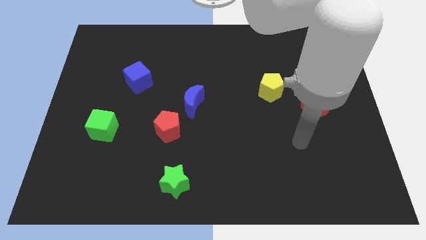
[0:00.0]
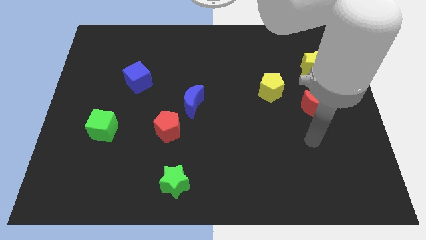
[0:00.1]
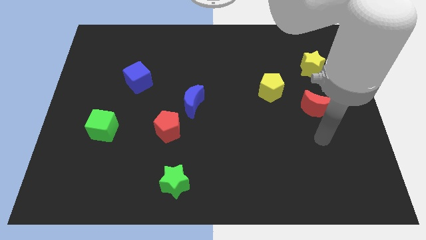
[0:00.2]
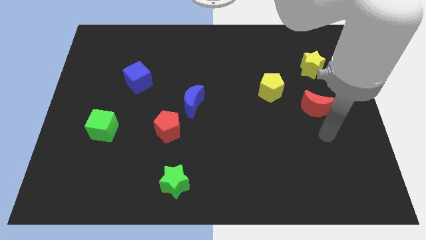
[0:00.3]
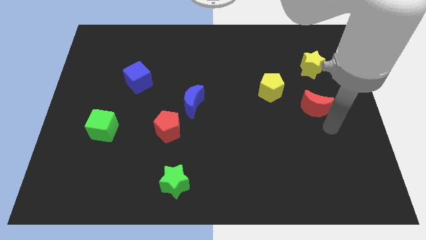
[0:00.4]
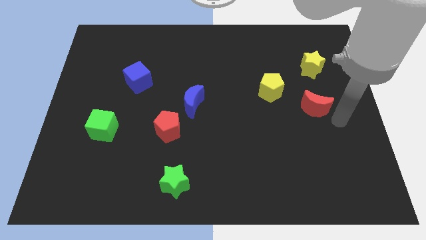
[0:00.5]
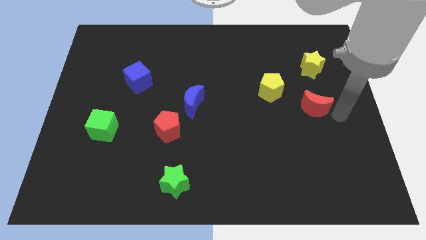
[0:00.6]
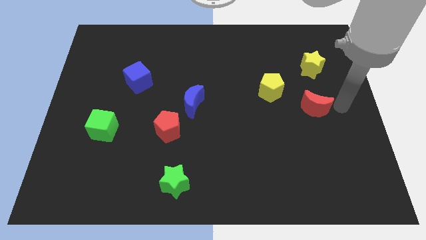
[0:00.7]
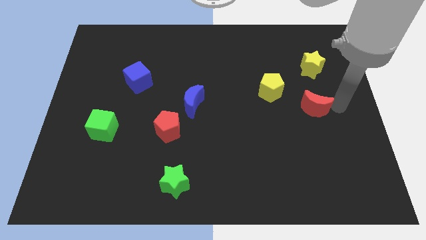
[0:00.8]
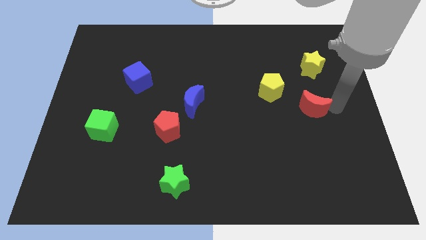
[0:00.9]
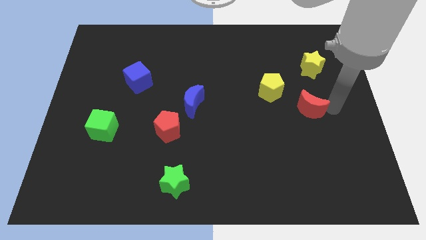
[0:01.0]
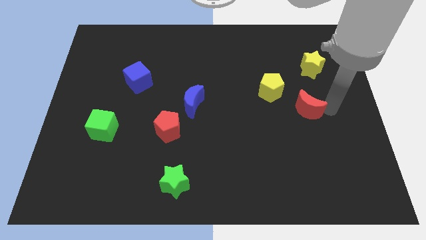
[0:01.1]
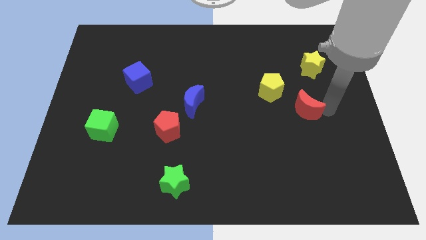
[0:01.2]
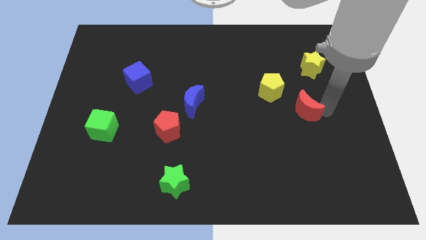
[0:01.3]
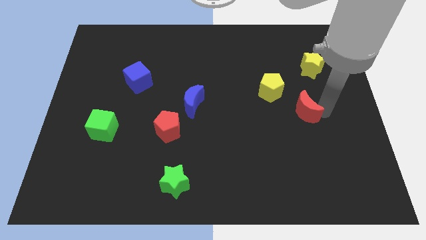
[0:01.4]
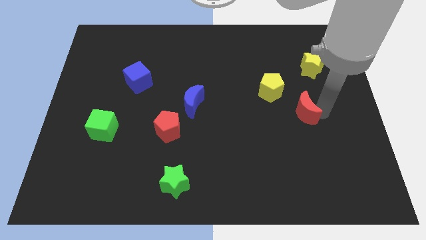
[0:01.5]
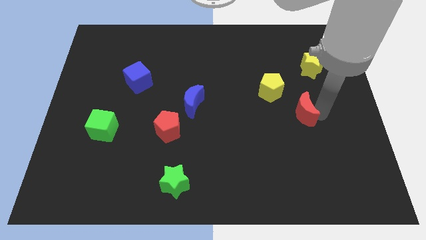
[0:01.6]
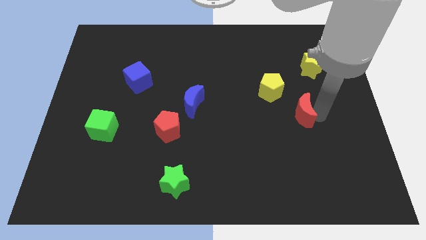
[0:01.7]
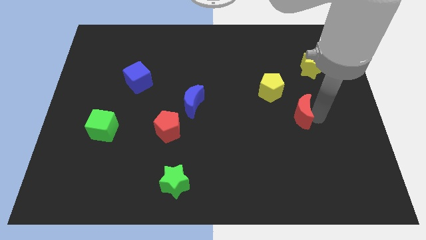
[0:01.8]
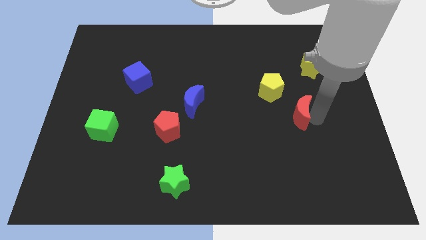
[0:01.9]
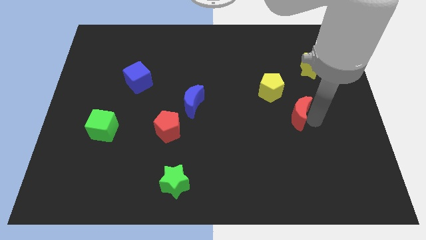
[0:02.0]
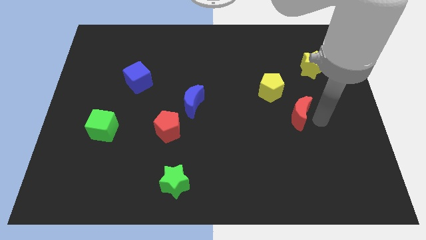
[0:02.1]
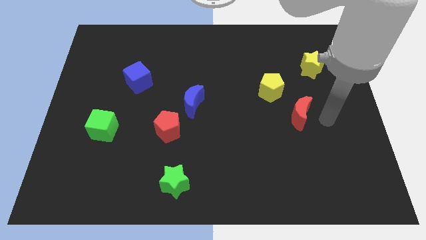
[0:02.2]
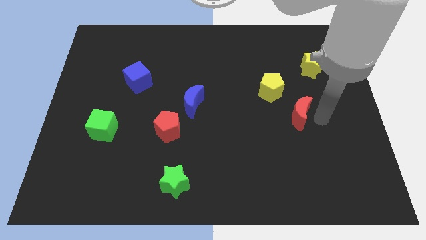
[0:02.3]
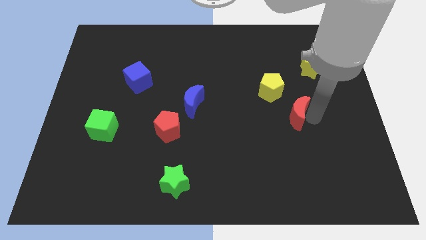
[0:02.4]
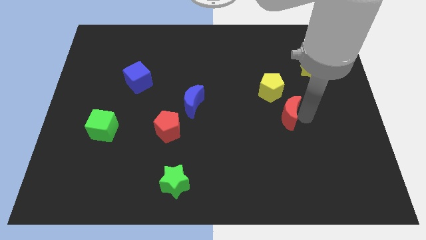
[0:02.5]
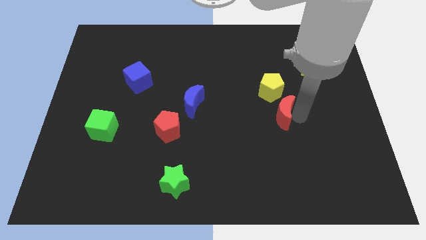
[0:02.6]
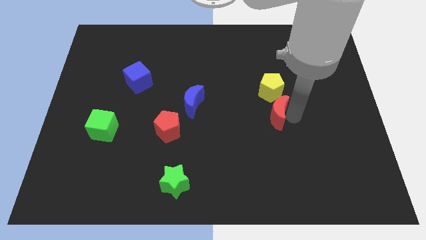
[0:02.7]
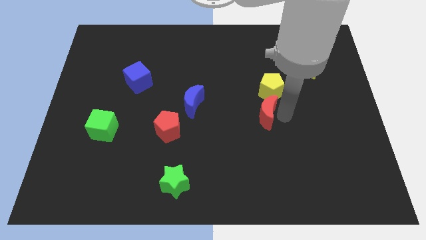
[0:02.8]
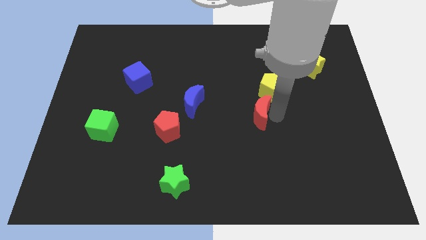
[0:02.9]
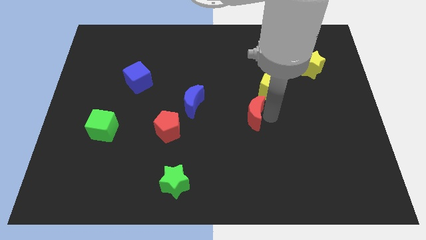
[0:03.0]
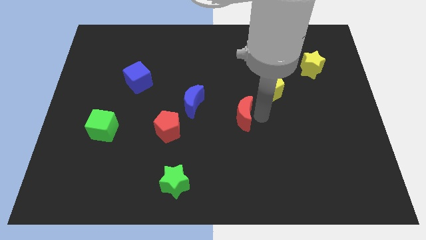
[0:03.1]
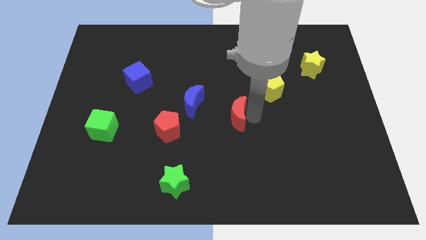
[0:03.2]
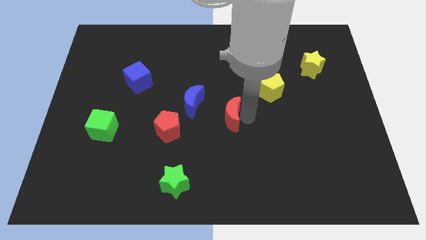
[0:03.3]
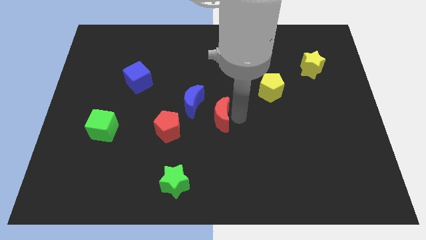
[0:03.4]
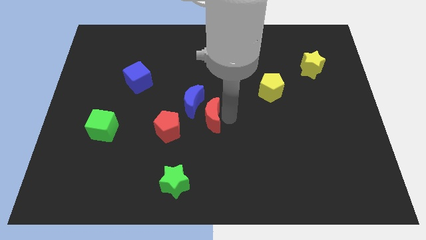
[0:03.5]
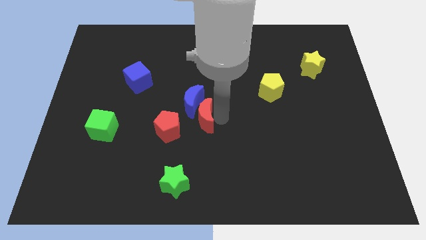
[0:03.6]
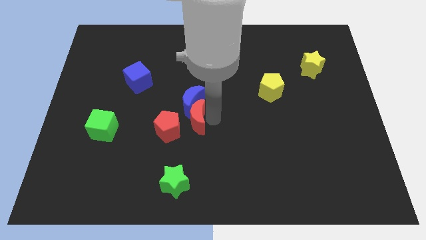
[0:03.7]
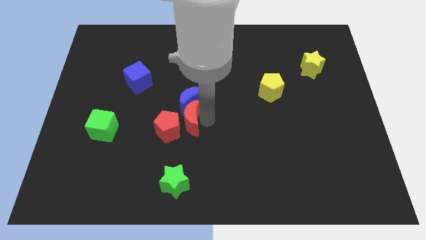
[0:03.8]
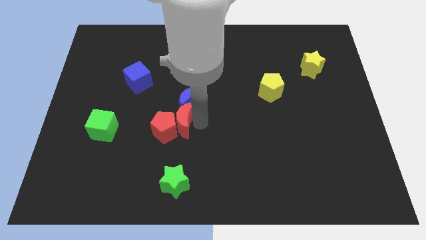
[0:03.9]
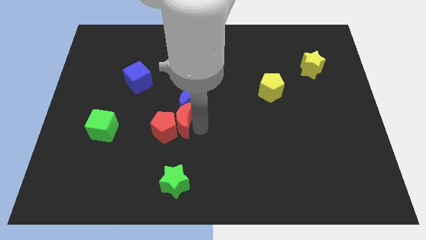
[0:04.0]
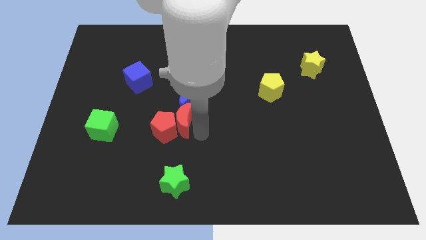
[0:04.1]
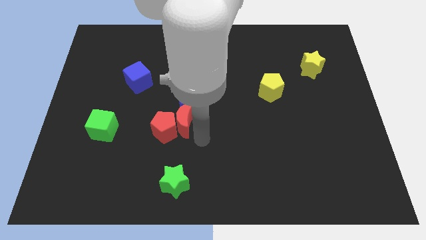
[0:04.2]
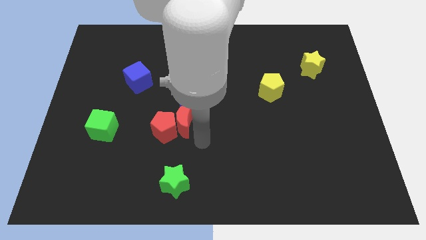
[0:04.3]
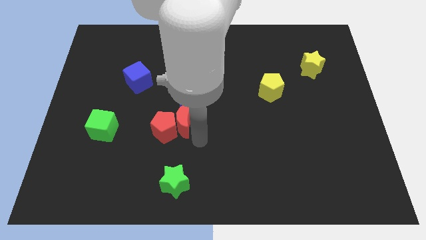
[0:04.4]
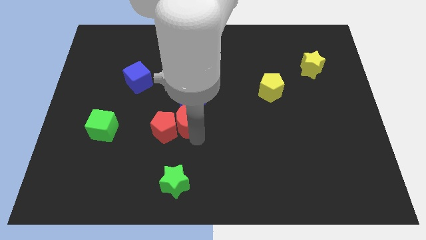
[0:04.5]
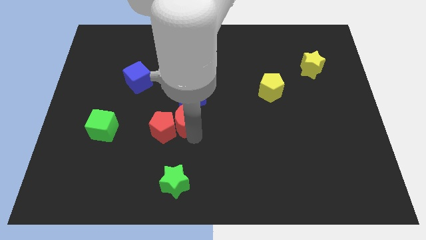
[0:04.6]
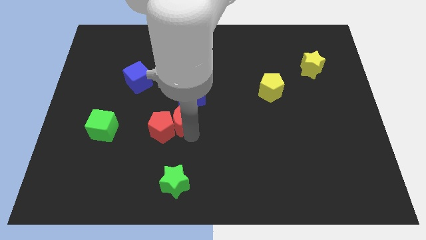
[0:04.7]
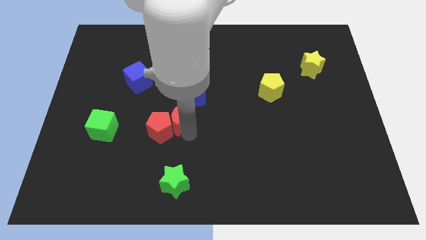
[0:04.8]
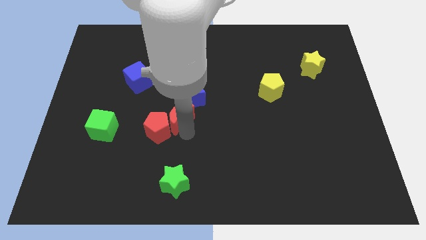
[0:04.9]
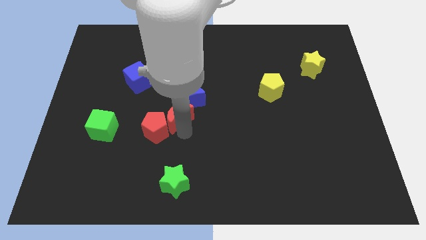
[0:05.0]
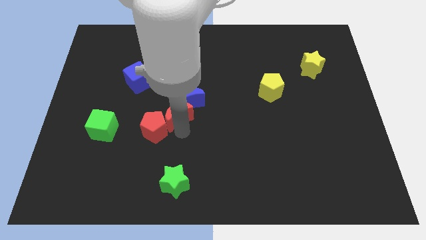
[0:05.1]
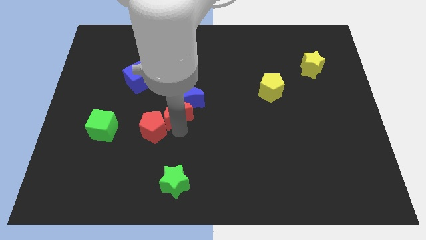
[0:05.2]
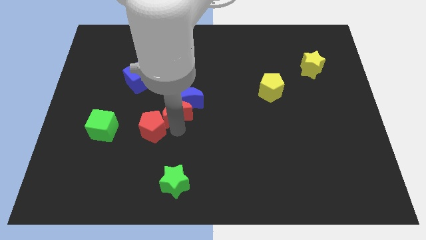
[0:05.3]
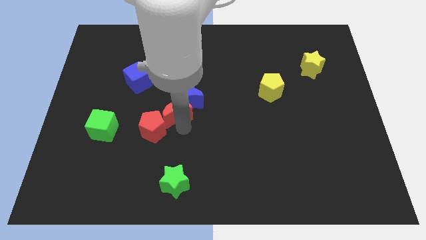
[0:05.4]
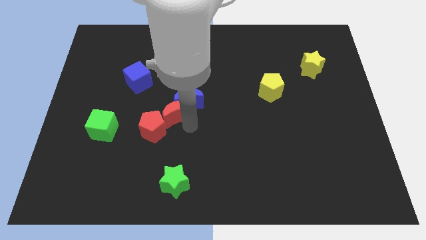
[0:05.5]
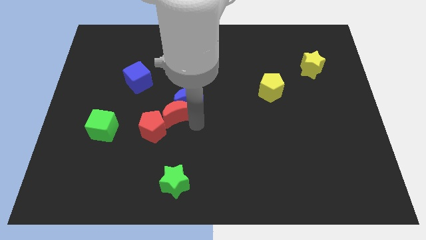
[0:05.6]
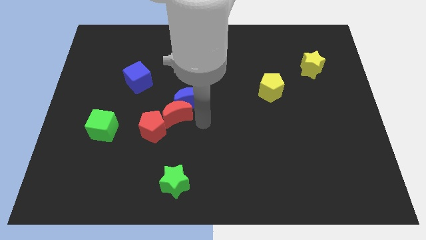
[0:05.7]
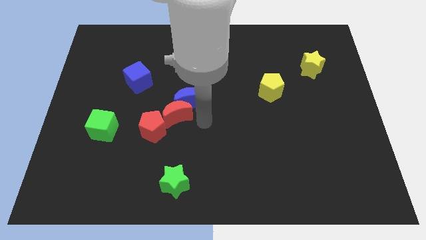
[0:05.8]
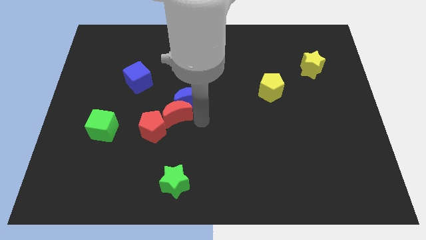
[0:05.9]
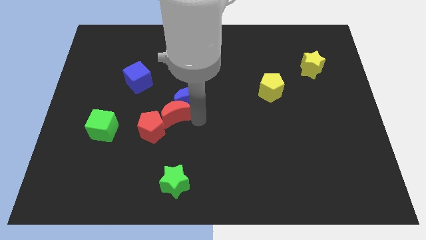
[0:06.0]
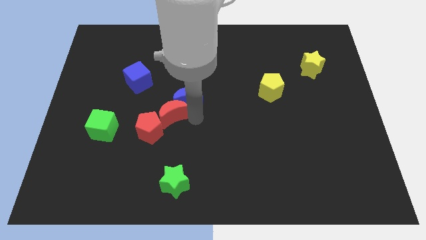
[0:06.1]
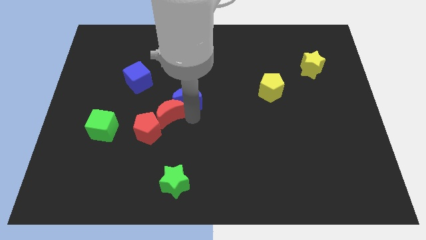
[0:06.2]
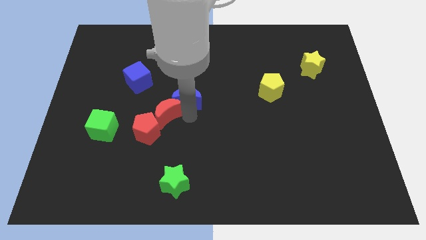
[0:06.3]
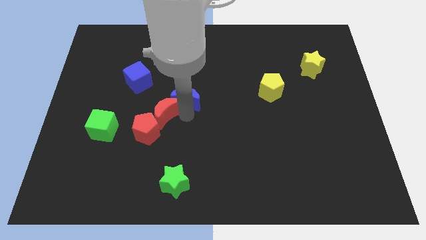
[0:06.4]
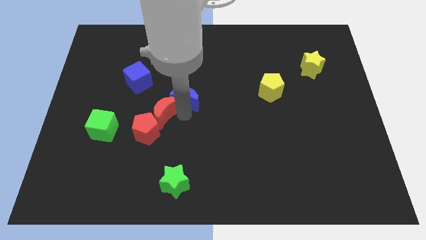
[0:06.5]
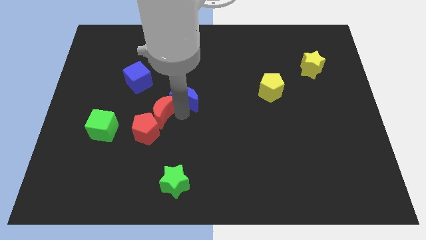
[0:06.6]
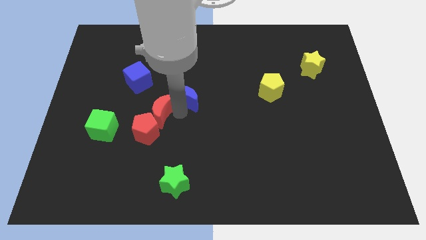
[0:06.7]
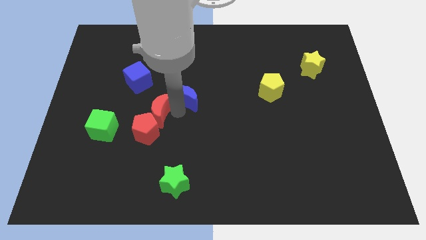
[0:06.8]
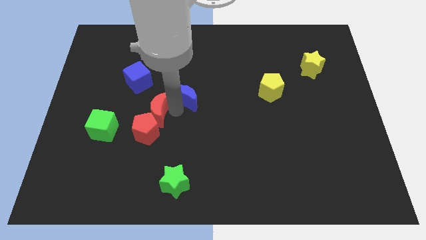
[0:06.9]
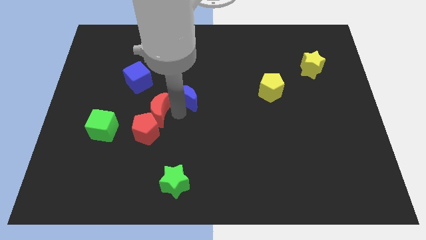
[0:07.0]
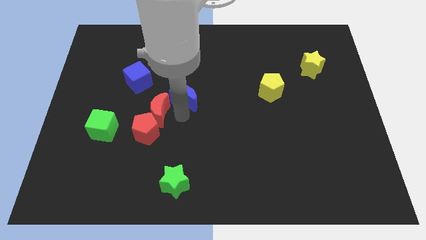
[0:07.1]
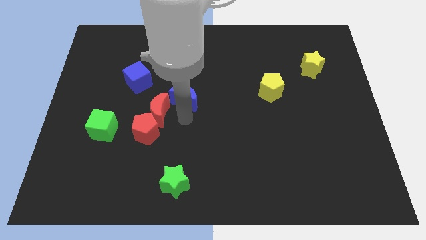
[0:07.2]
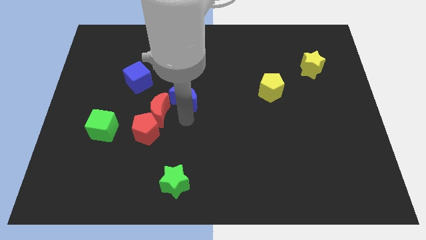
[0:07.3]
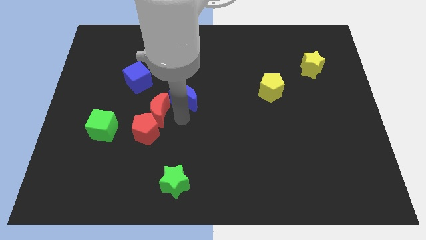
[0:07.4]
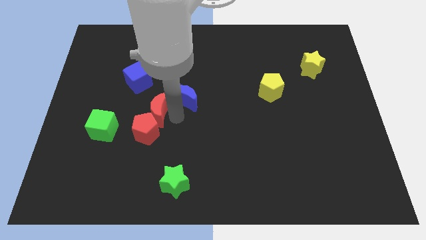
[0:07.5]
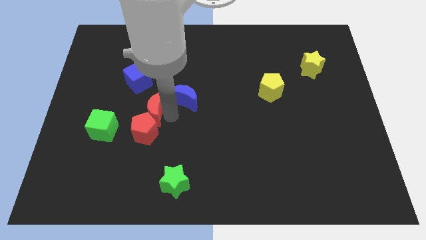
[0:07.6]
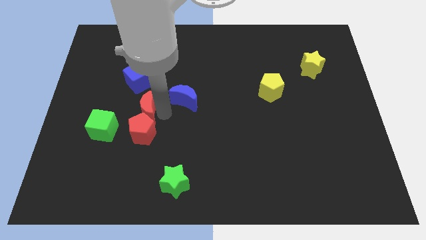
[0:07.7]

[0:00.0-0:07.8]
slide the red moon diagonally up and to the right of the green cube
